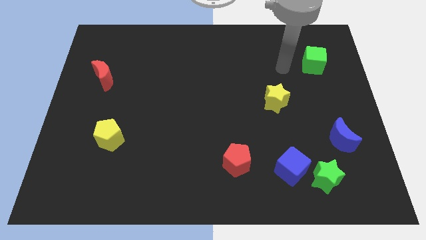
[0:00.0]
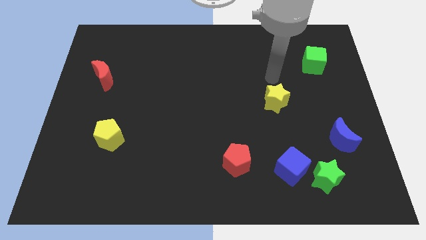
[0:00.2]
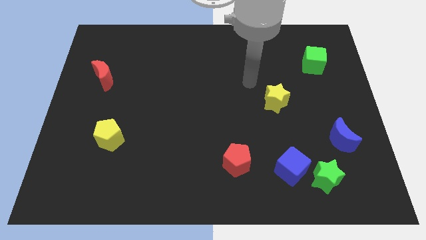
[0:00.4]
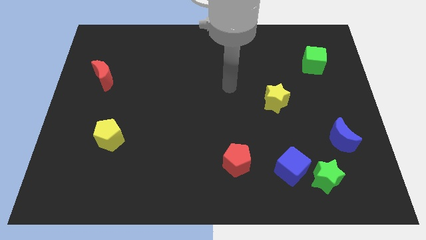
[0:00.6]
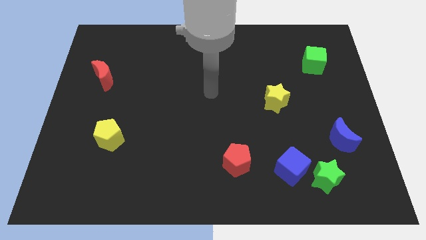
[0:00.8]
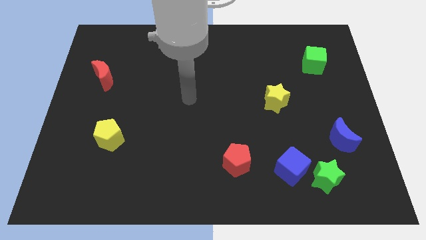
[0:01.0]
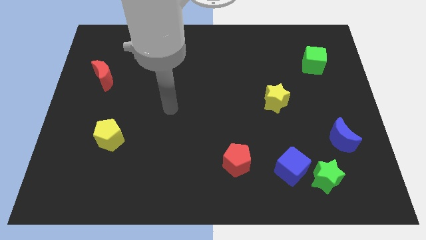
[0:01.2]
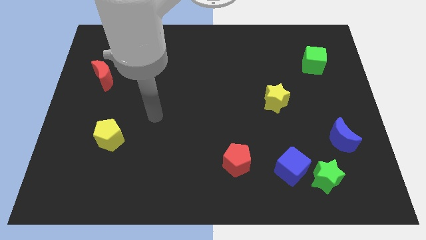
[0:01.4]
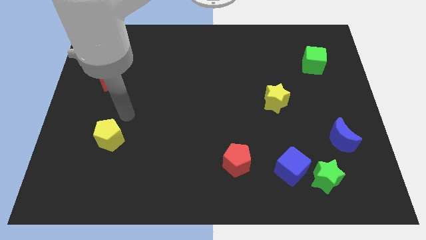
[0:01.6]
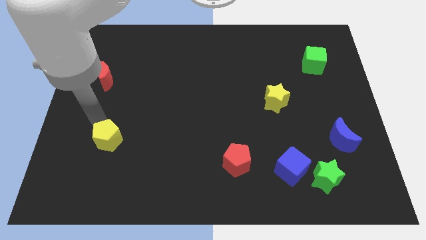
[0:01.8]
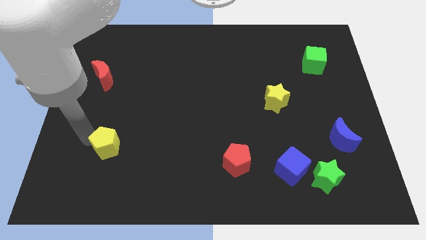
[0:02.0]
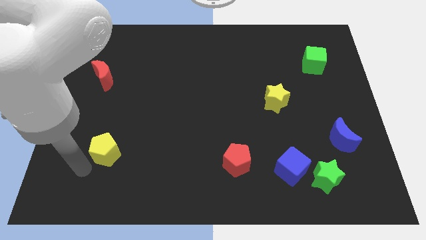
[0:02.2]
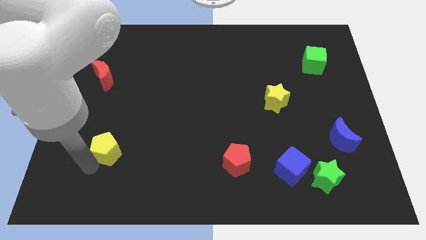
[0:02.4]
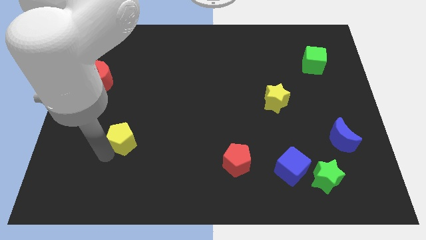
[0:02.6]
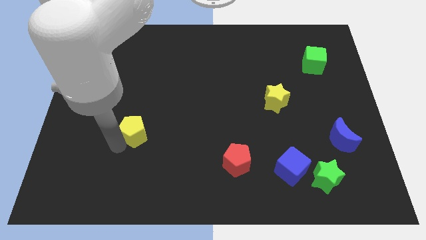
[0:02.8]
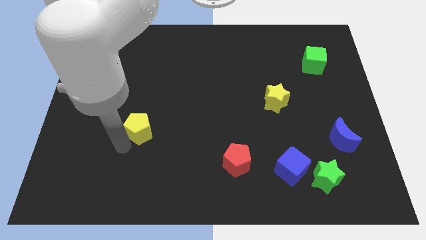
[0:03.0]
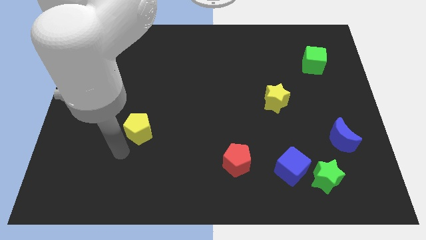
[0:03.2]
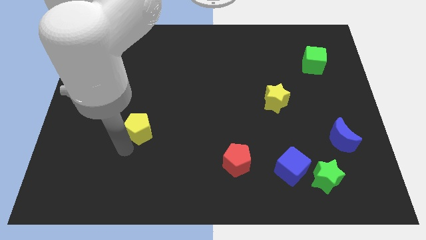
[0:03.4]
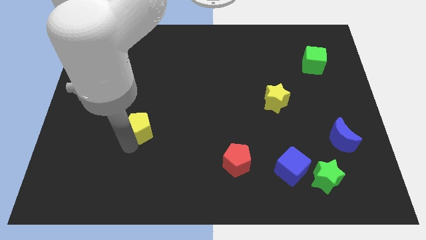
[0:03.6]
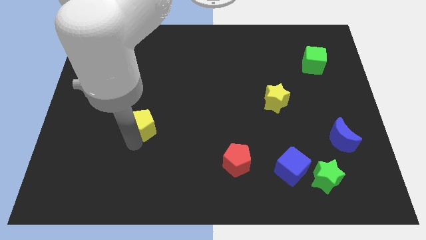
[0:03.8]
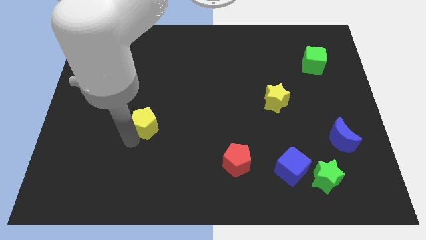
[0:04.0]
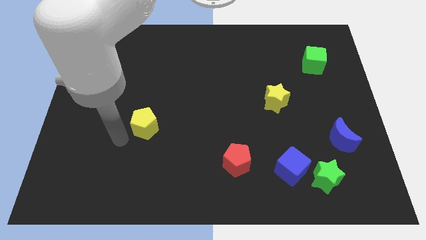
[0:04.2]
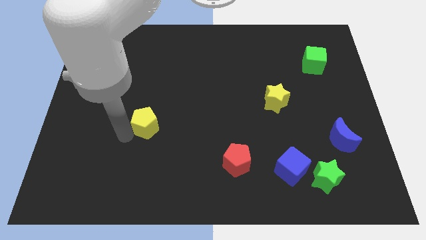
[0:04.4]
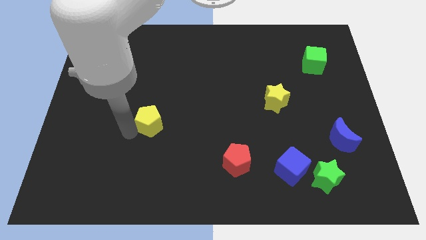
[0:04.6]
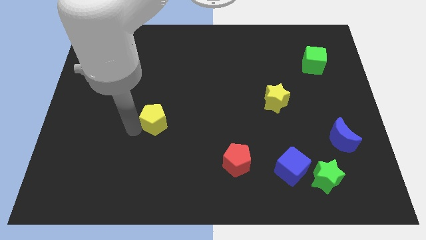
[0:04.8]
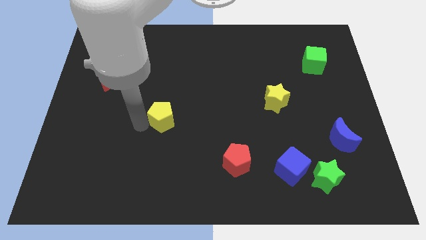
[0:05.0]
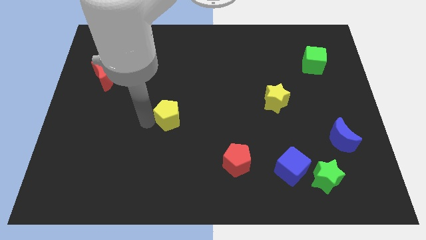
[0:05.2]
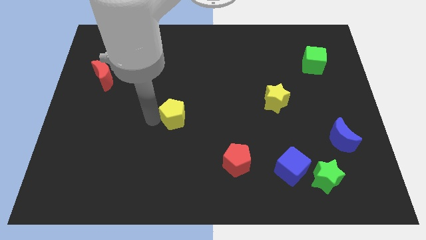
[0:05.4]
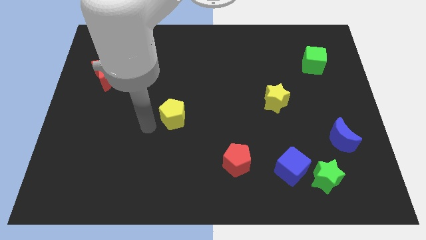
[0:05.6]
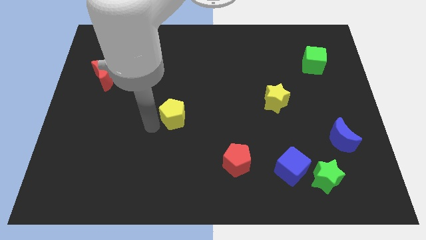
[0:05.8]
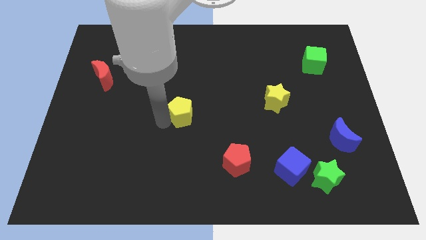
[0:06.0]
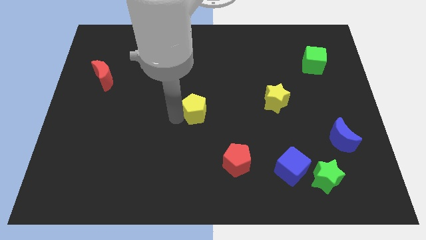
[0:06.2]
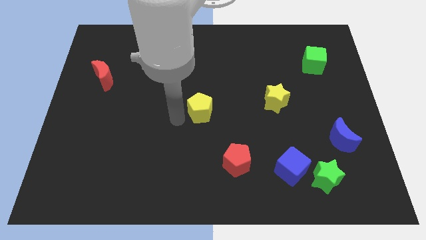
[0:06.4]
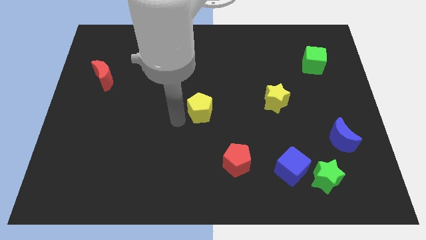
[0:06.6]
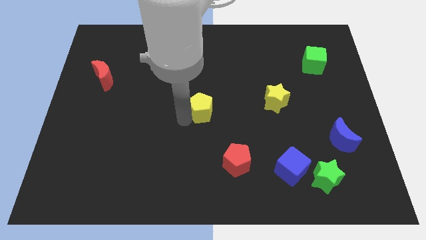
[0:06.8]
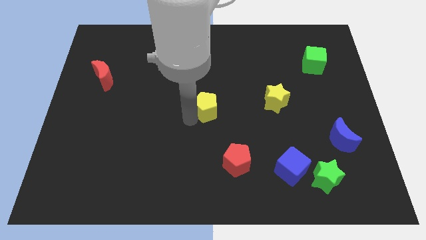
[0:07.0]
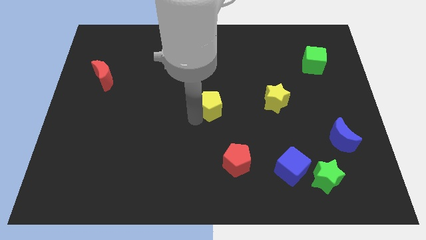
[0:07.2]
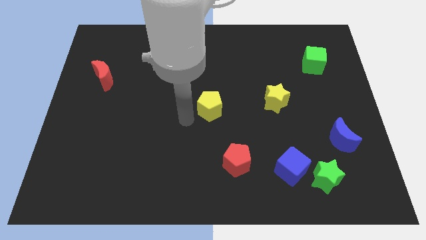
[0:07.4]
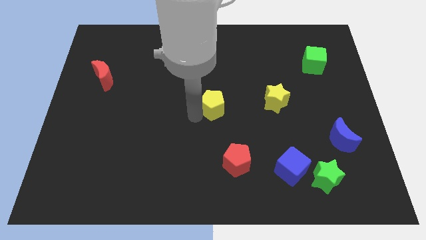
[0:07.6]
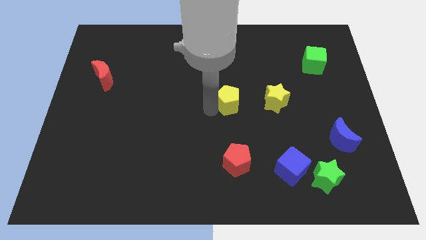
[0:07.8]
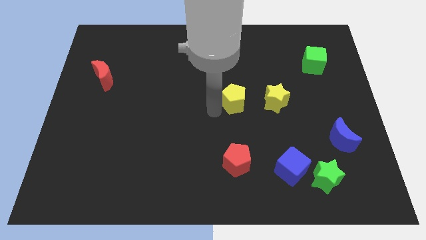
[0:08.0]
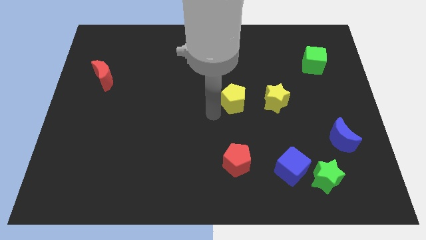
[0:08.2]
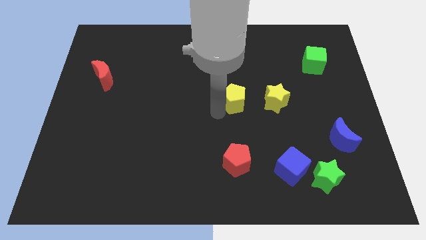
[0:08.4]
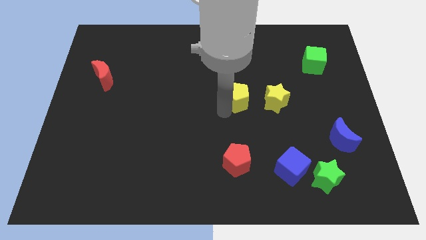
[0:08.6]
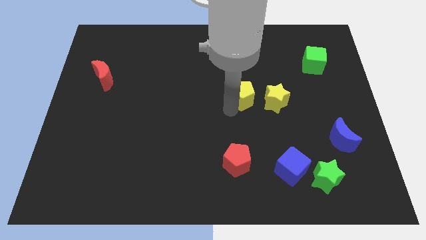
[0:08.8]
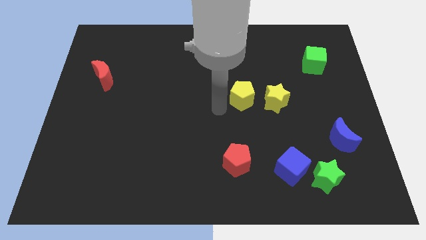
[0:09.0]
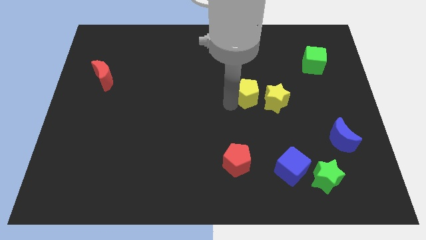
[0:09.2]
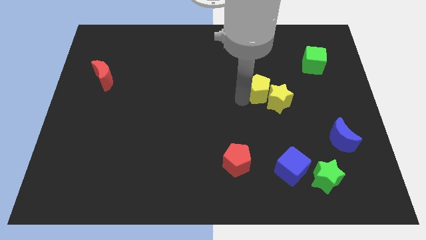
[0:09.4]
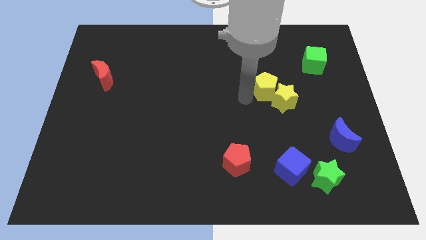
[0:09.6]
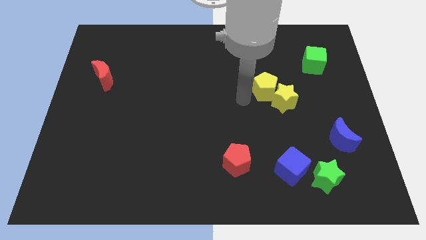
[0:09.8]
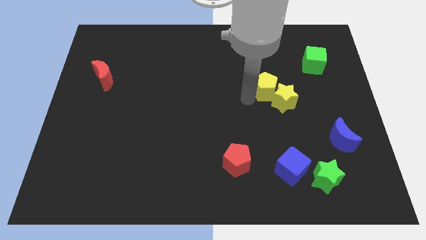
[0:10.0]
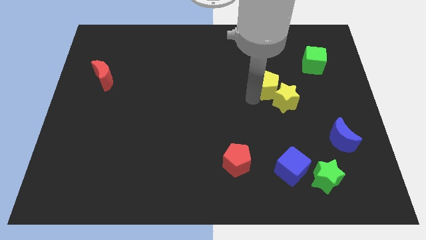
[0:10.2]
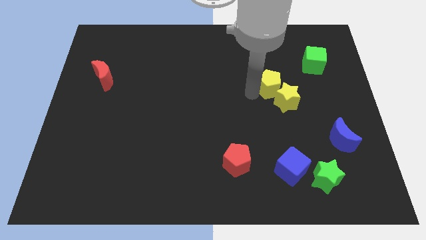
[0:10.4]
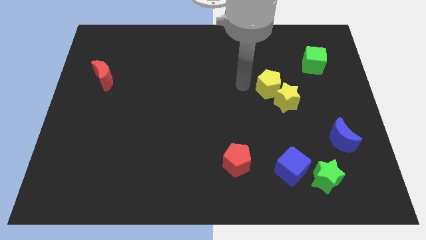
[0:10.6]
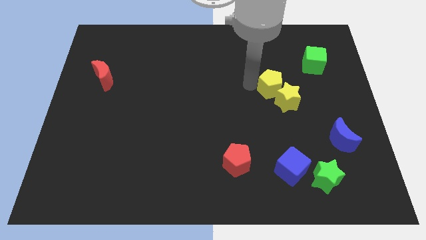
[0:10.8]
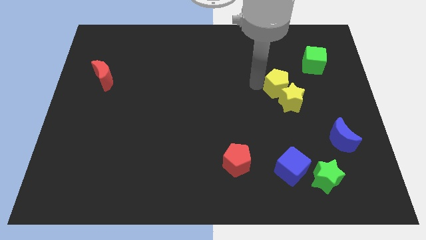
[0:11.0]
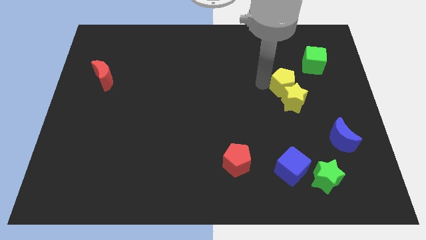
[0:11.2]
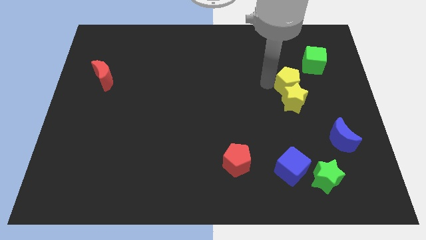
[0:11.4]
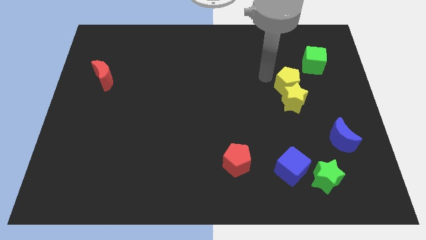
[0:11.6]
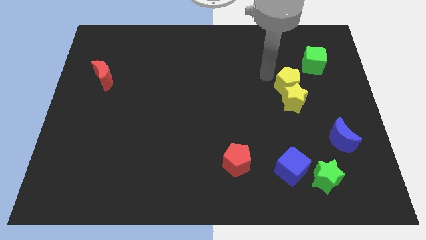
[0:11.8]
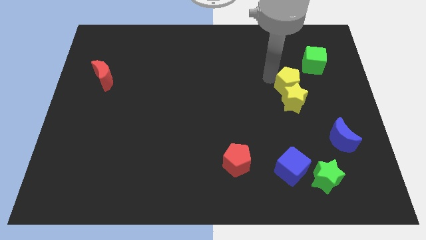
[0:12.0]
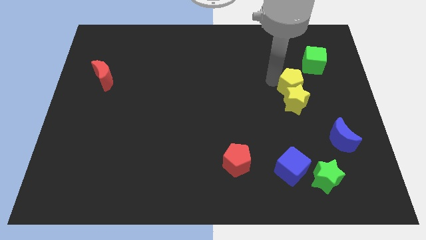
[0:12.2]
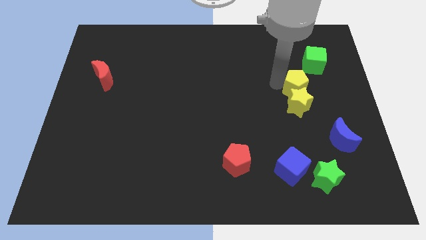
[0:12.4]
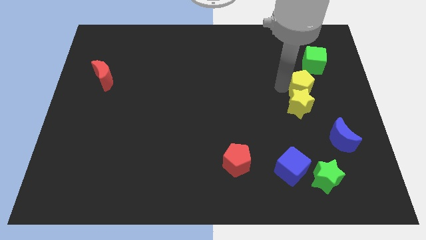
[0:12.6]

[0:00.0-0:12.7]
slide the yellow pentagon to the bottom side of the green cube

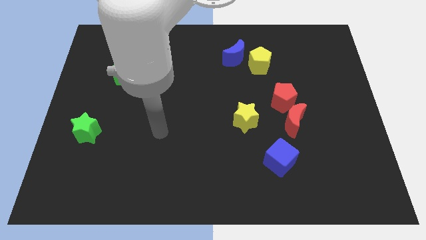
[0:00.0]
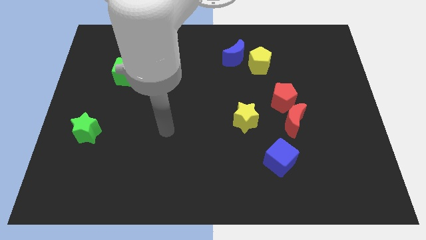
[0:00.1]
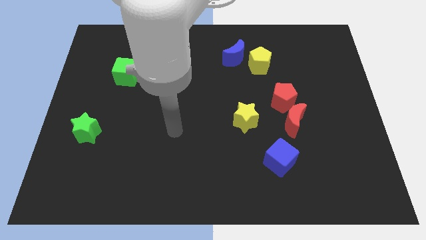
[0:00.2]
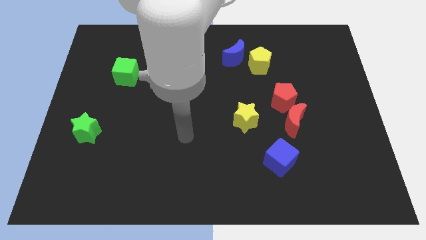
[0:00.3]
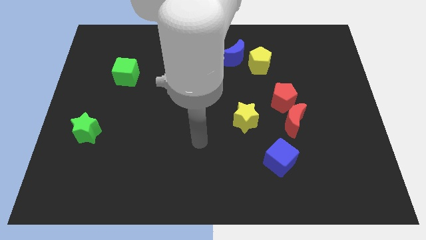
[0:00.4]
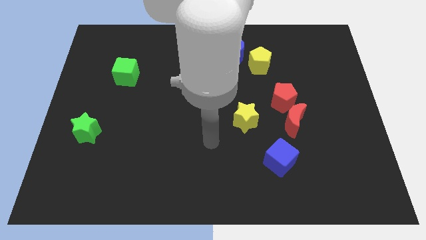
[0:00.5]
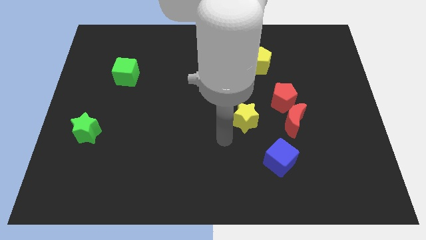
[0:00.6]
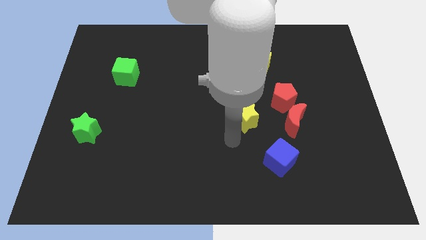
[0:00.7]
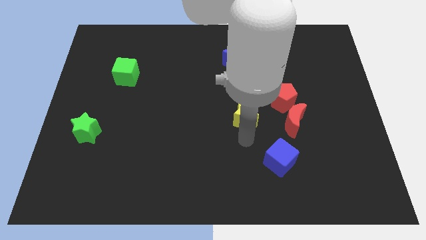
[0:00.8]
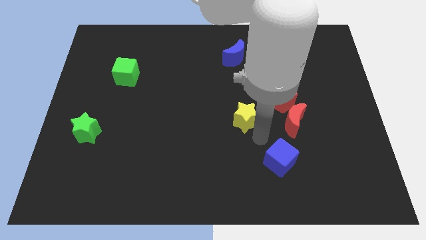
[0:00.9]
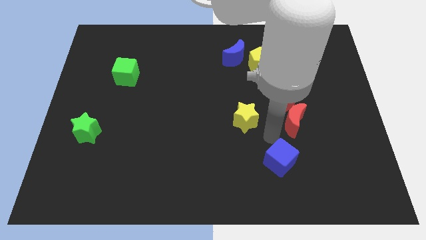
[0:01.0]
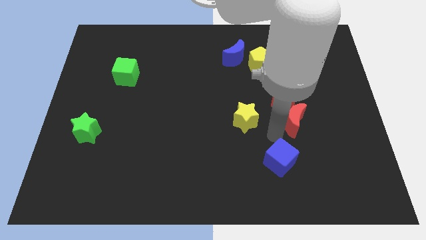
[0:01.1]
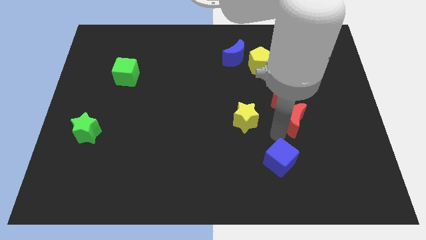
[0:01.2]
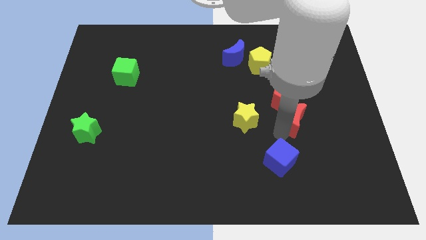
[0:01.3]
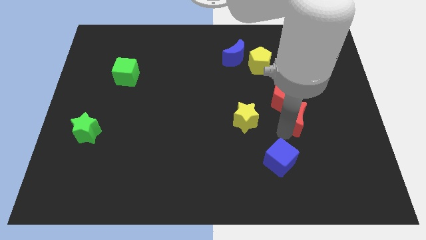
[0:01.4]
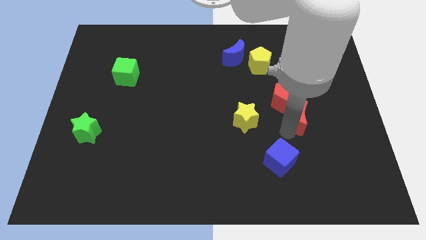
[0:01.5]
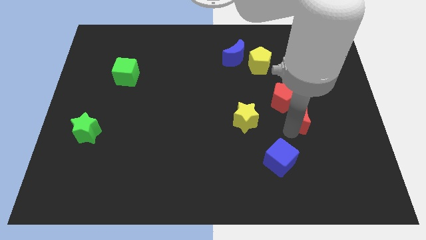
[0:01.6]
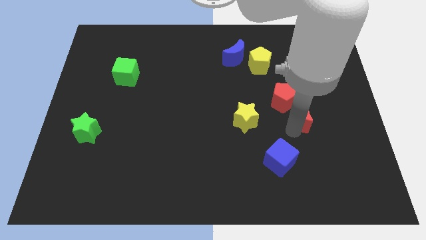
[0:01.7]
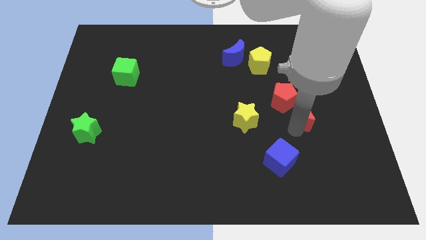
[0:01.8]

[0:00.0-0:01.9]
move the red moon just right of the red pentagon
